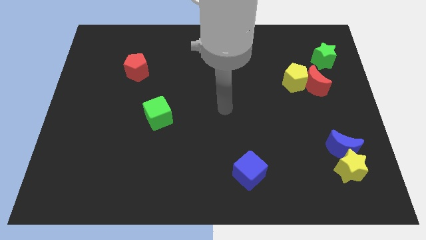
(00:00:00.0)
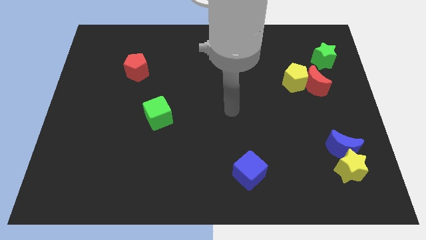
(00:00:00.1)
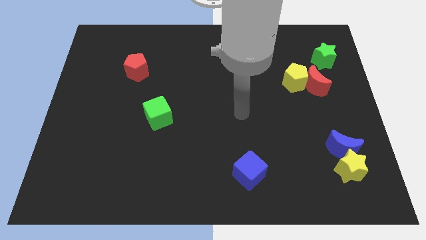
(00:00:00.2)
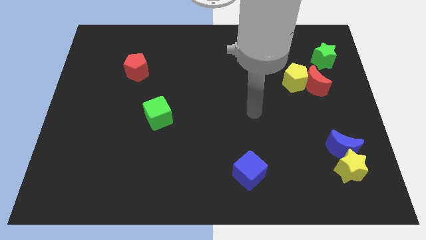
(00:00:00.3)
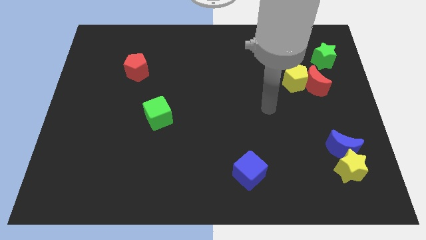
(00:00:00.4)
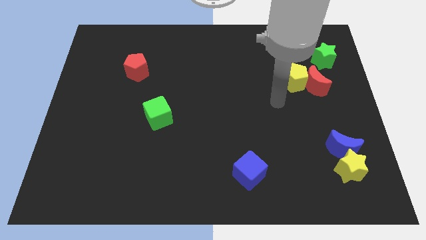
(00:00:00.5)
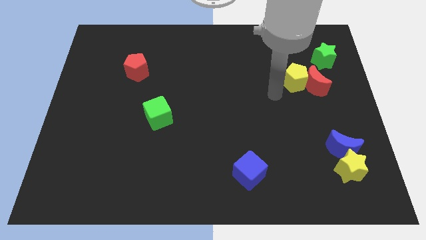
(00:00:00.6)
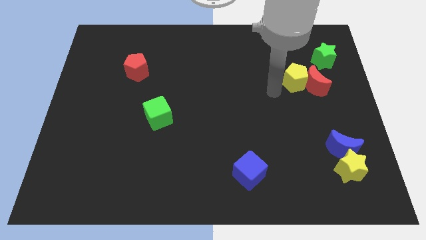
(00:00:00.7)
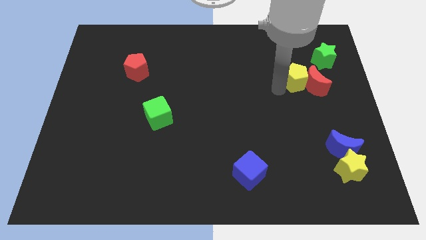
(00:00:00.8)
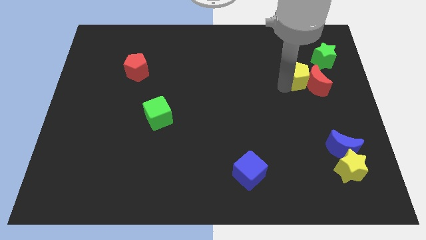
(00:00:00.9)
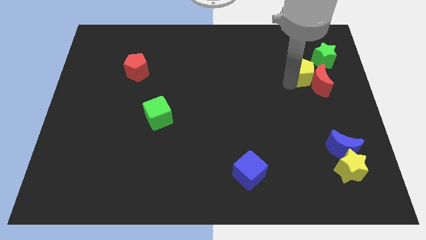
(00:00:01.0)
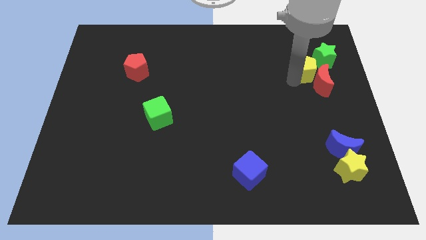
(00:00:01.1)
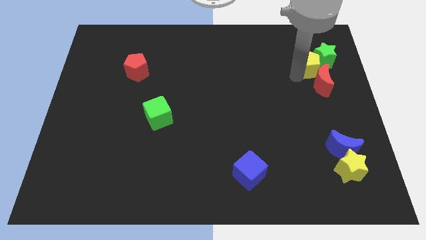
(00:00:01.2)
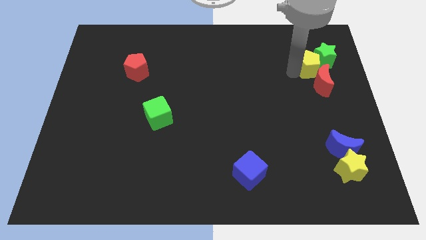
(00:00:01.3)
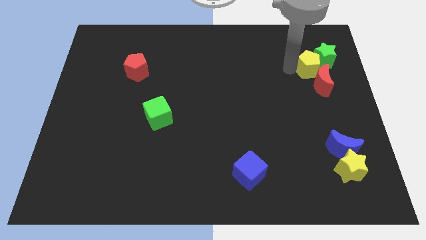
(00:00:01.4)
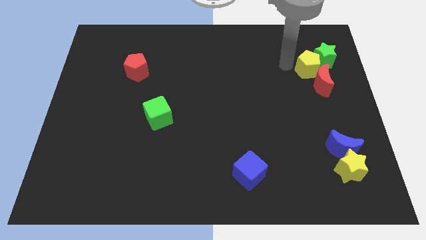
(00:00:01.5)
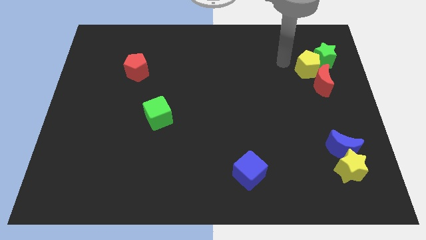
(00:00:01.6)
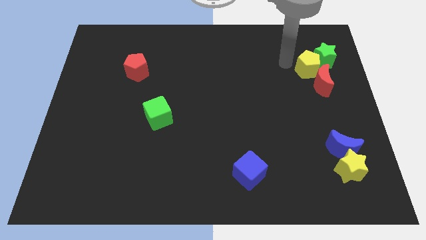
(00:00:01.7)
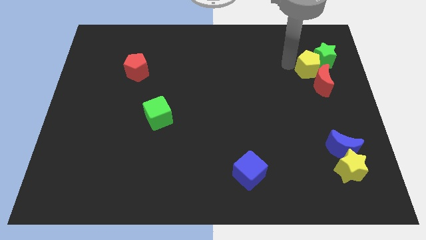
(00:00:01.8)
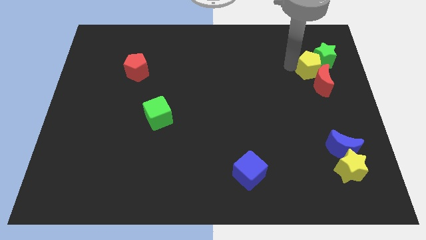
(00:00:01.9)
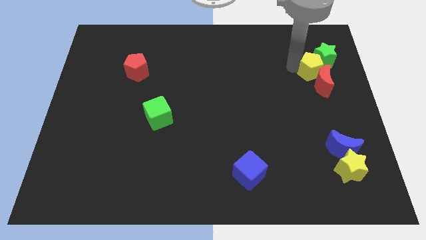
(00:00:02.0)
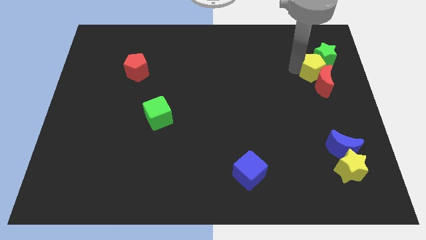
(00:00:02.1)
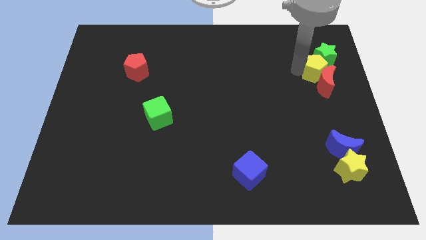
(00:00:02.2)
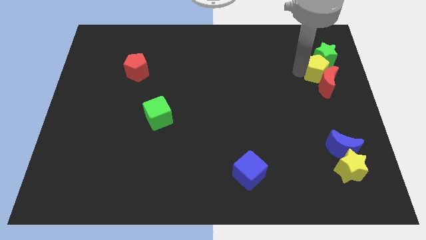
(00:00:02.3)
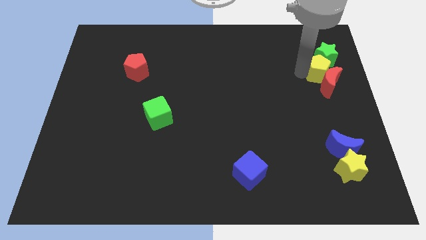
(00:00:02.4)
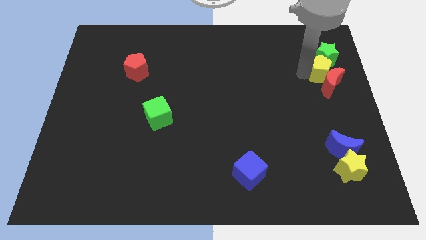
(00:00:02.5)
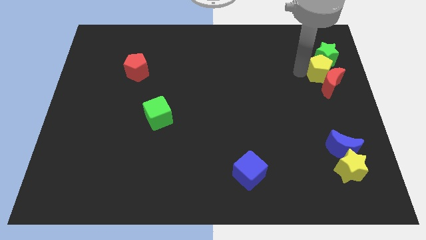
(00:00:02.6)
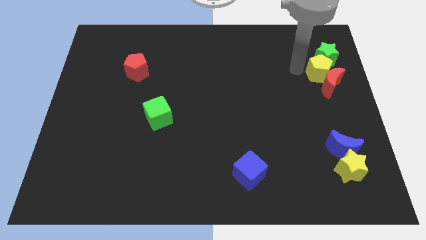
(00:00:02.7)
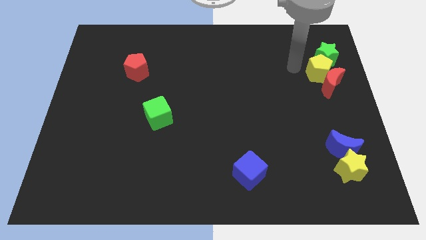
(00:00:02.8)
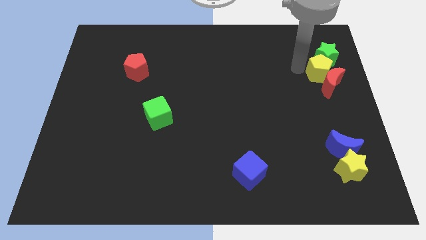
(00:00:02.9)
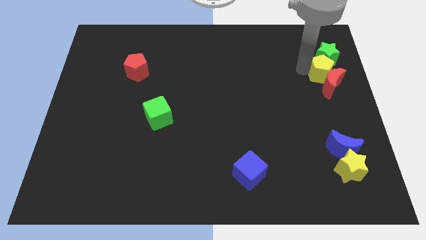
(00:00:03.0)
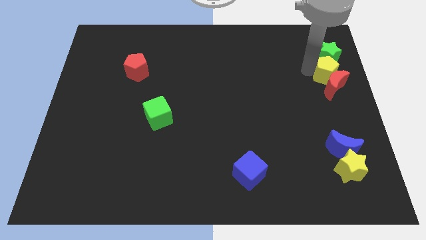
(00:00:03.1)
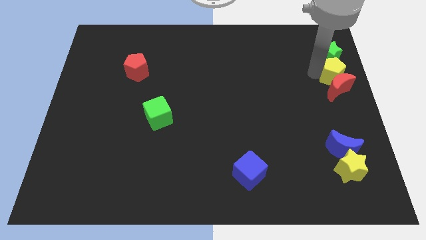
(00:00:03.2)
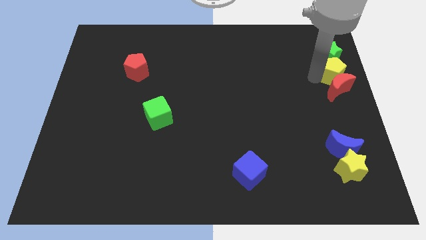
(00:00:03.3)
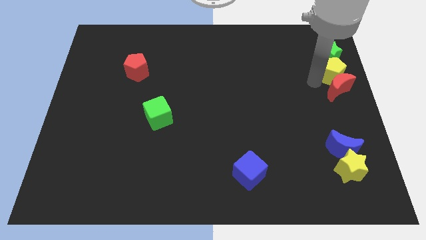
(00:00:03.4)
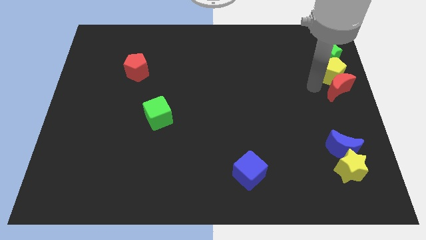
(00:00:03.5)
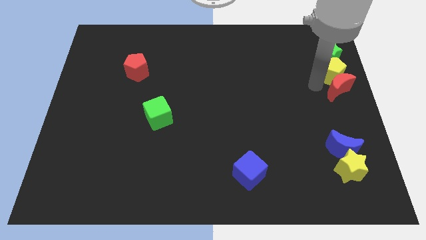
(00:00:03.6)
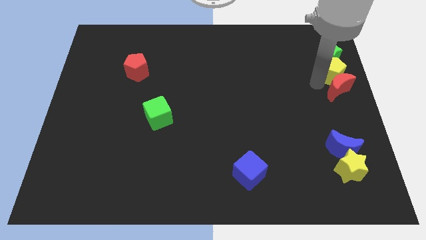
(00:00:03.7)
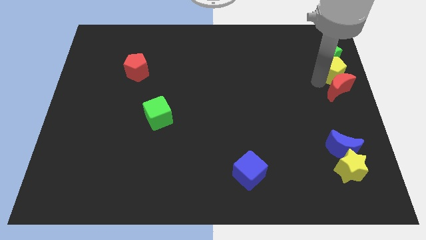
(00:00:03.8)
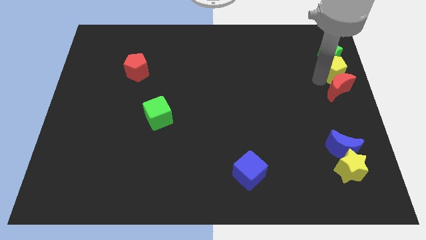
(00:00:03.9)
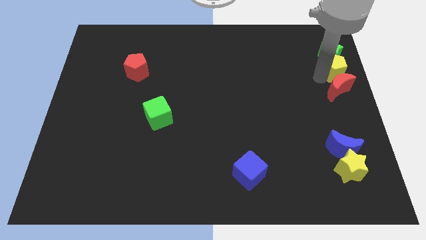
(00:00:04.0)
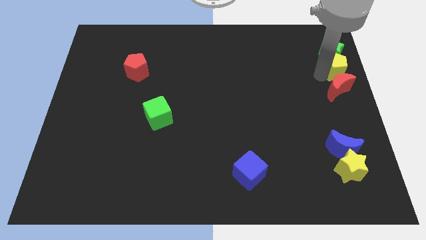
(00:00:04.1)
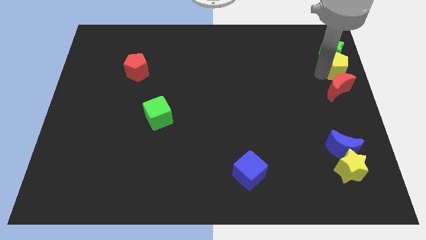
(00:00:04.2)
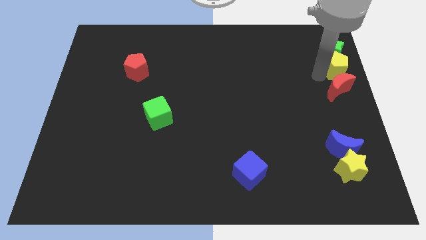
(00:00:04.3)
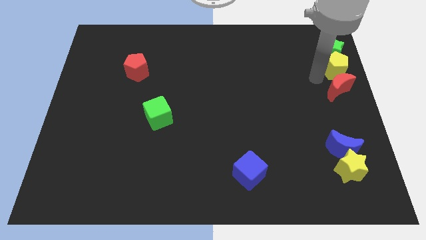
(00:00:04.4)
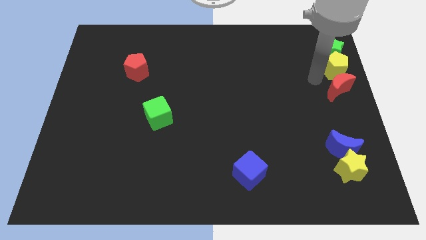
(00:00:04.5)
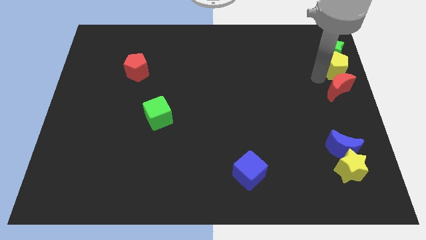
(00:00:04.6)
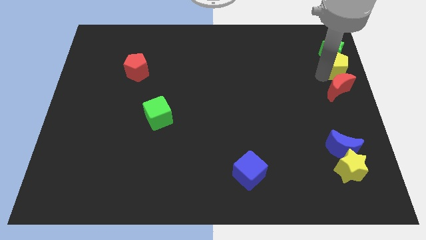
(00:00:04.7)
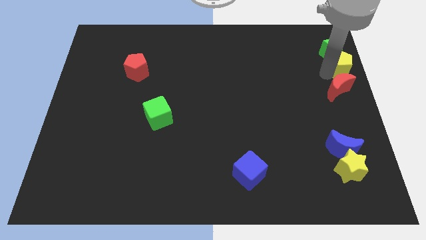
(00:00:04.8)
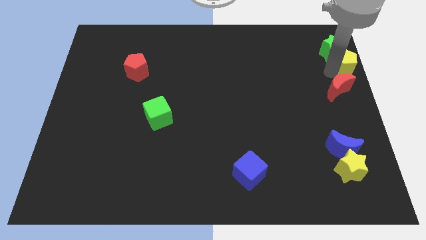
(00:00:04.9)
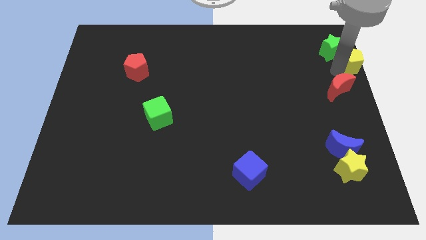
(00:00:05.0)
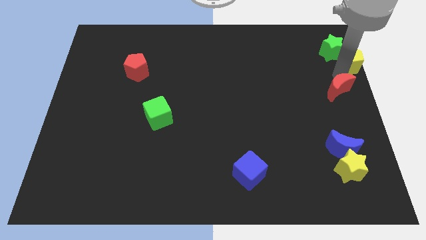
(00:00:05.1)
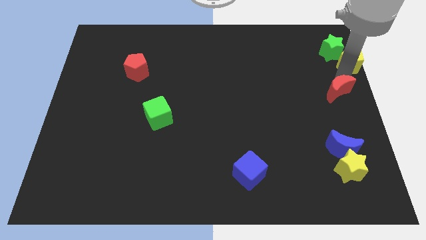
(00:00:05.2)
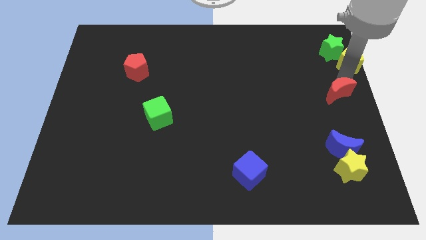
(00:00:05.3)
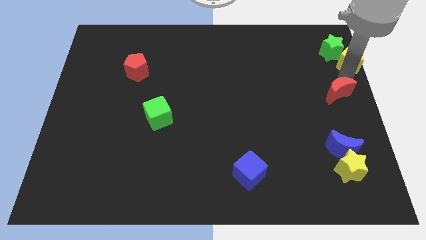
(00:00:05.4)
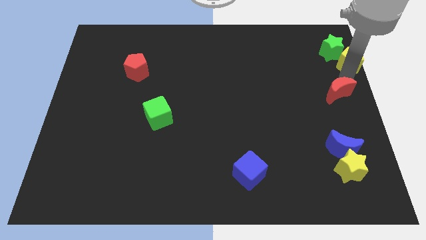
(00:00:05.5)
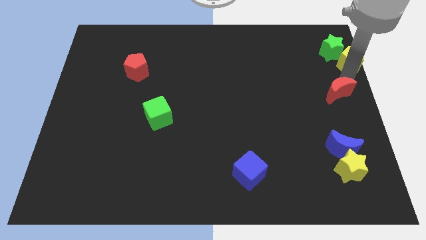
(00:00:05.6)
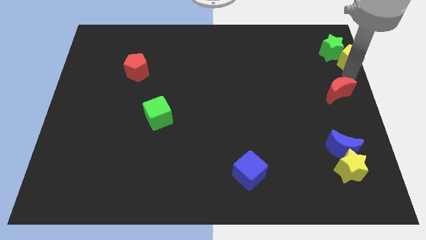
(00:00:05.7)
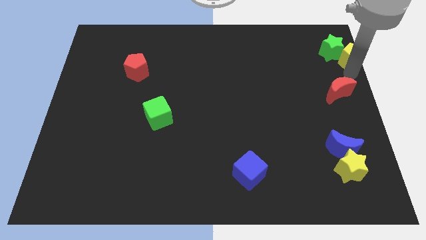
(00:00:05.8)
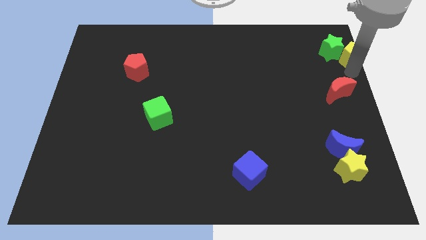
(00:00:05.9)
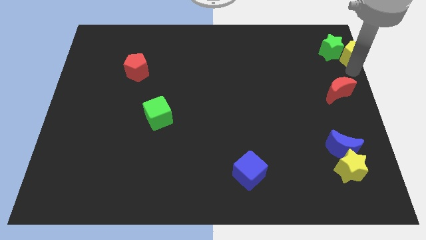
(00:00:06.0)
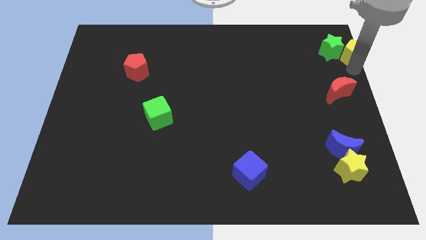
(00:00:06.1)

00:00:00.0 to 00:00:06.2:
move the yellow pentagon to the upper right corner

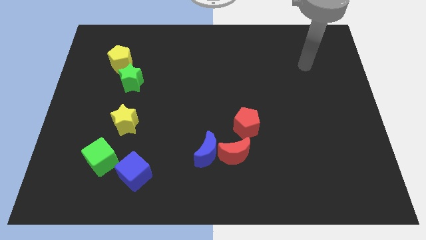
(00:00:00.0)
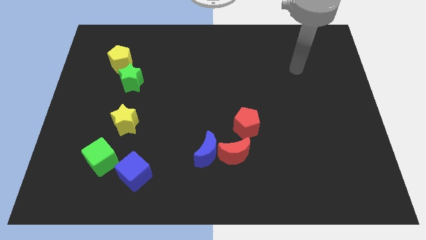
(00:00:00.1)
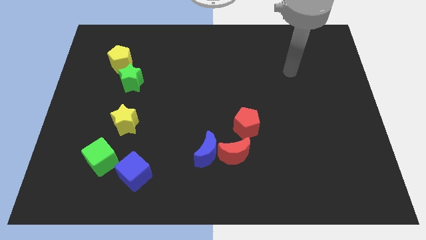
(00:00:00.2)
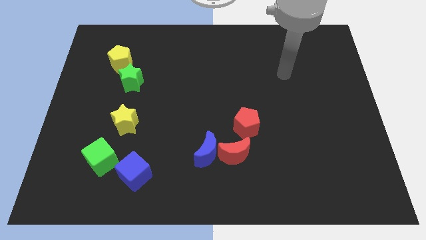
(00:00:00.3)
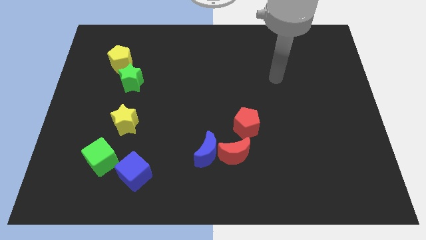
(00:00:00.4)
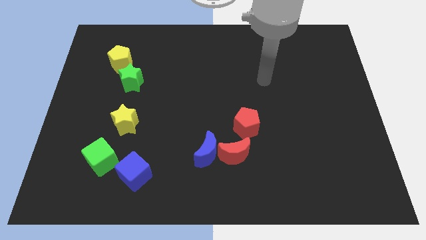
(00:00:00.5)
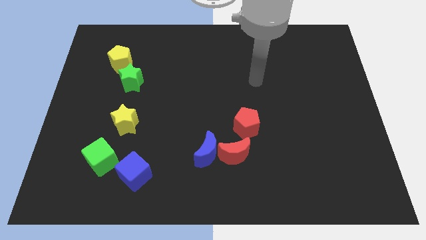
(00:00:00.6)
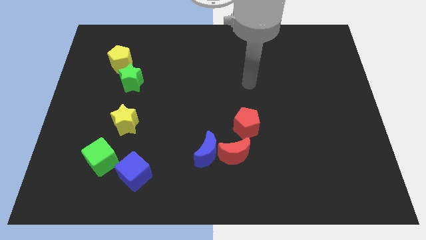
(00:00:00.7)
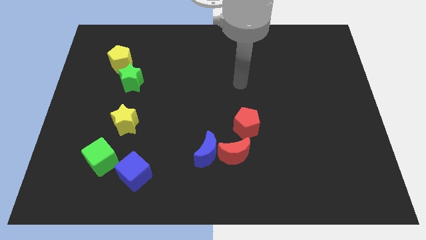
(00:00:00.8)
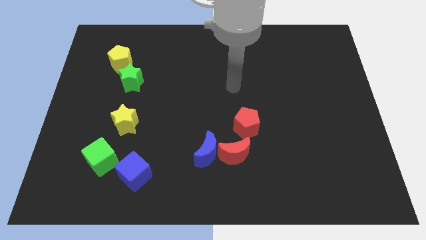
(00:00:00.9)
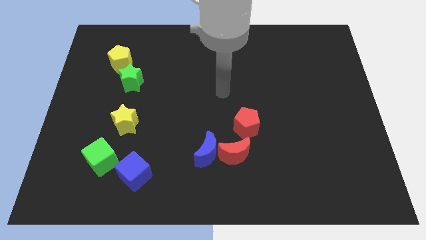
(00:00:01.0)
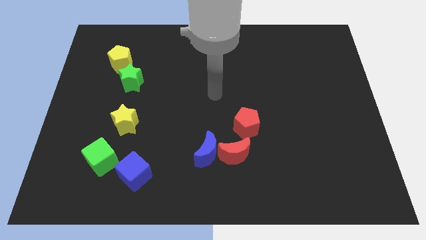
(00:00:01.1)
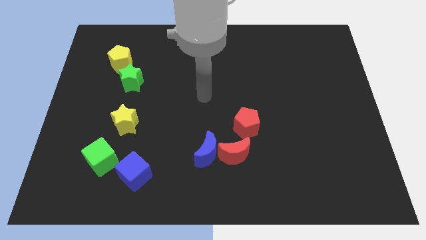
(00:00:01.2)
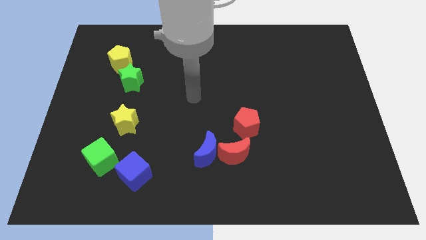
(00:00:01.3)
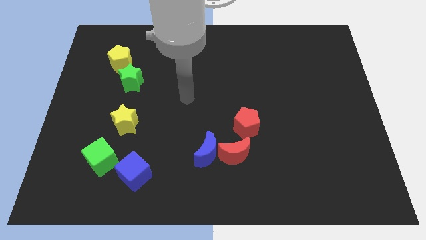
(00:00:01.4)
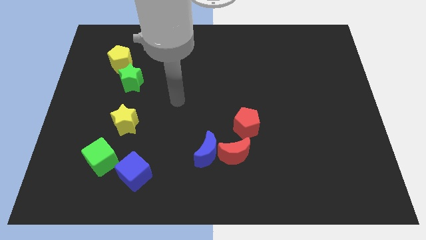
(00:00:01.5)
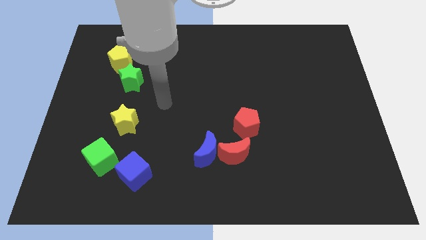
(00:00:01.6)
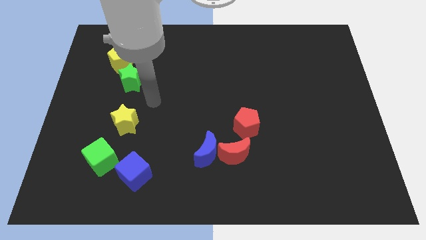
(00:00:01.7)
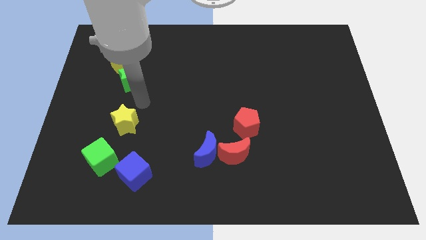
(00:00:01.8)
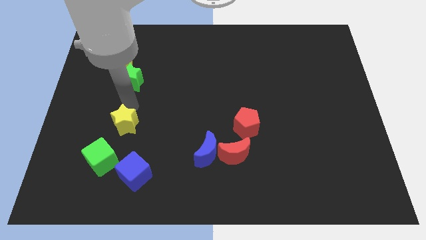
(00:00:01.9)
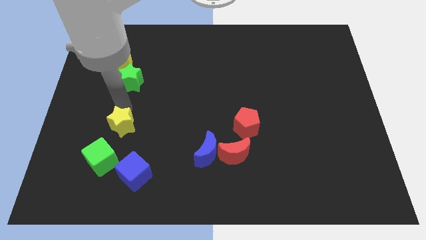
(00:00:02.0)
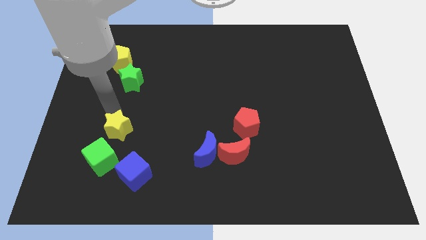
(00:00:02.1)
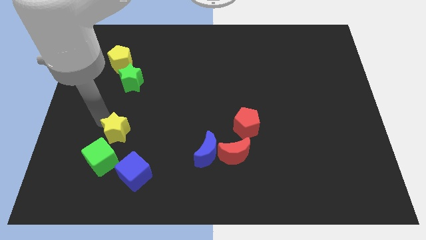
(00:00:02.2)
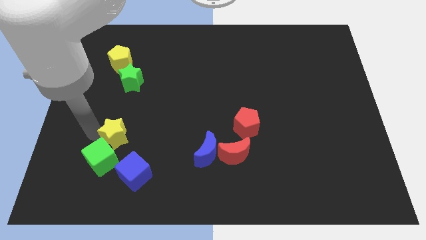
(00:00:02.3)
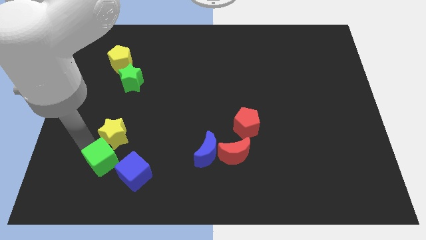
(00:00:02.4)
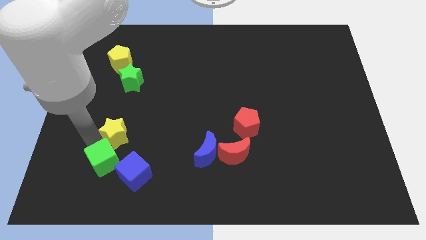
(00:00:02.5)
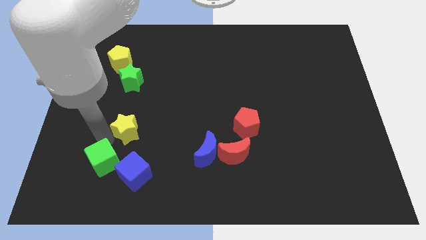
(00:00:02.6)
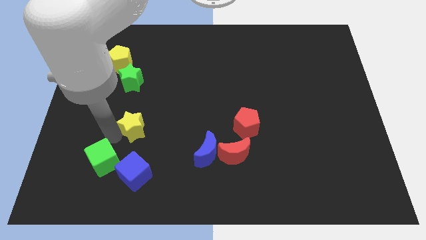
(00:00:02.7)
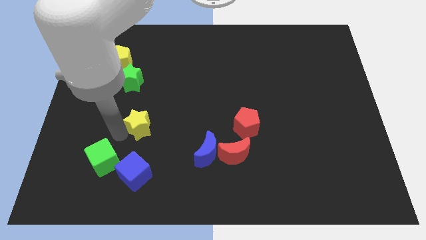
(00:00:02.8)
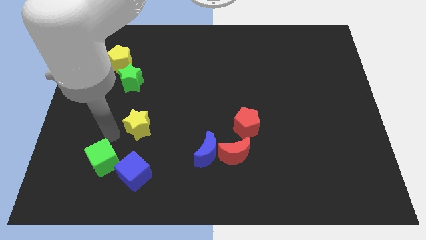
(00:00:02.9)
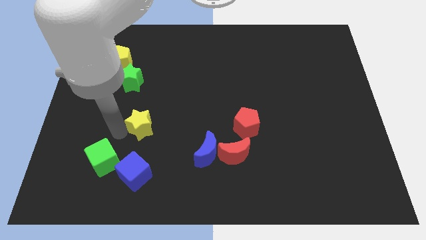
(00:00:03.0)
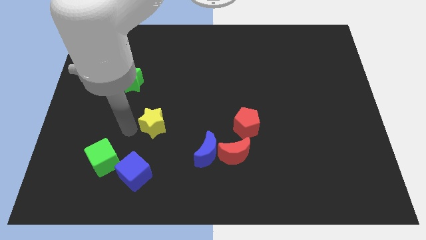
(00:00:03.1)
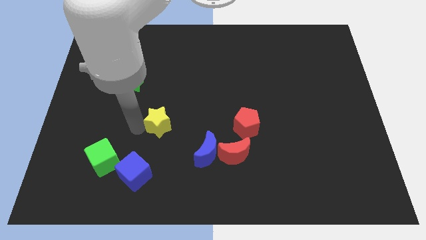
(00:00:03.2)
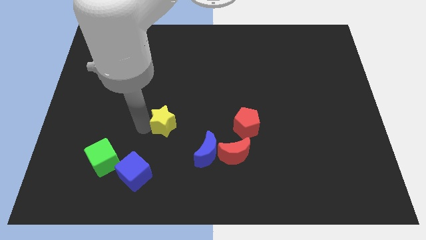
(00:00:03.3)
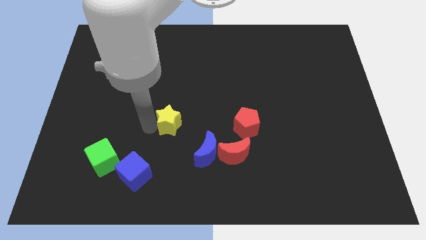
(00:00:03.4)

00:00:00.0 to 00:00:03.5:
put the yellow star to the middle
